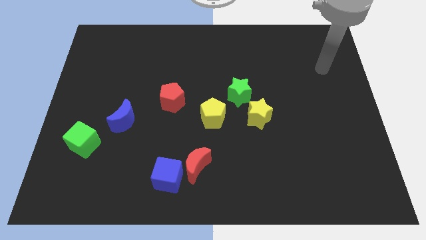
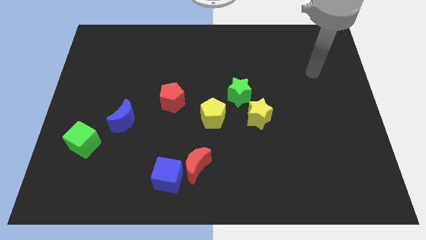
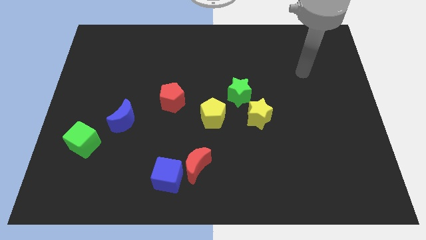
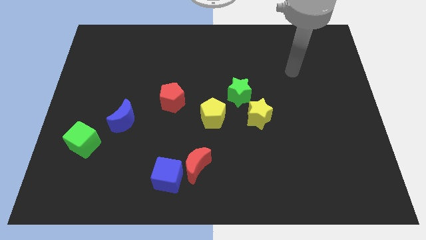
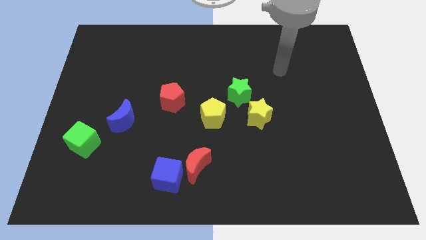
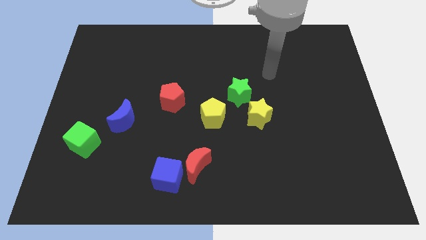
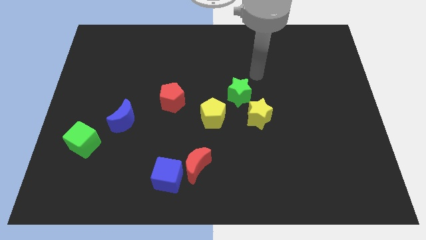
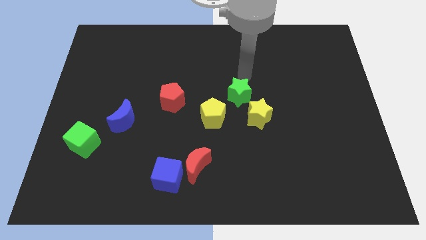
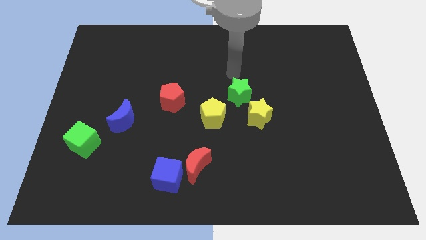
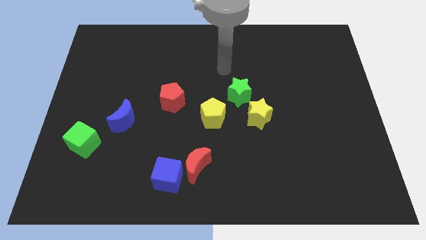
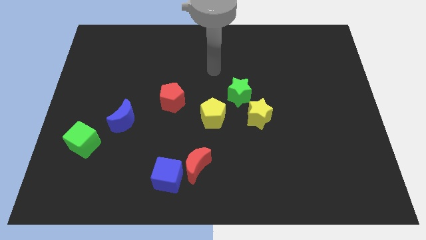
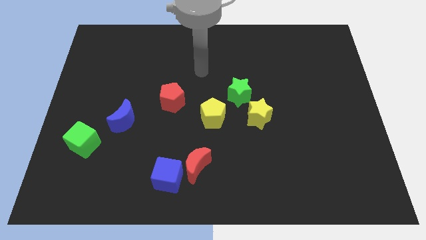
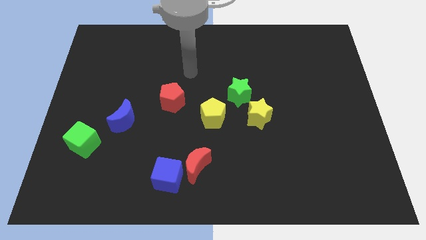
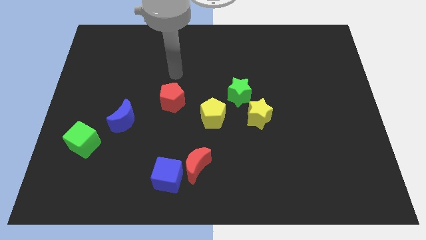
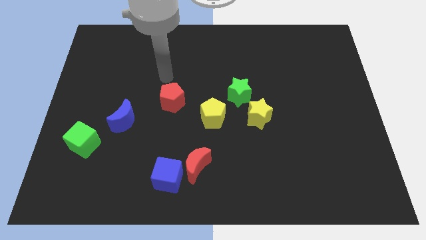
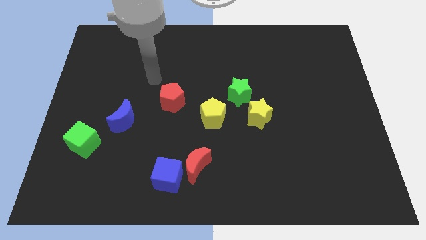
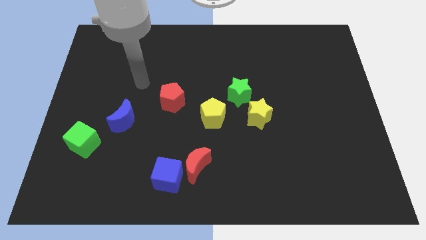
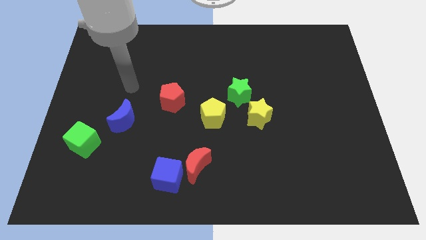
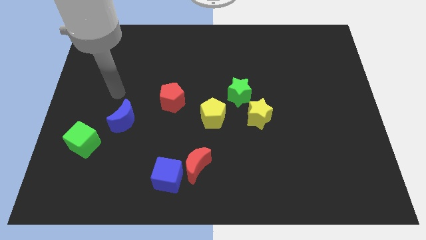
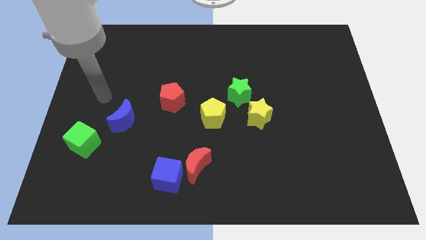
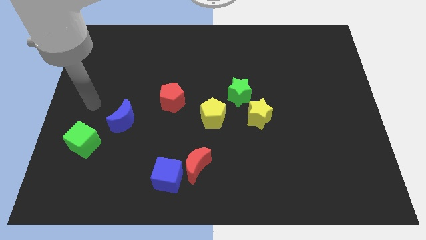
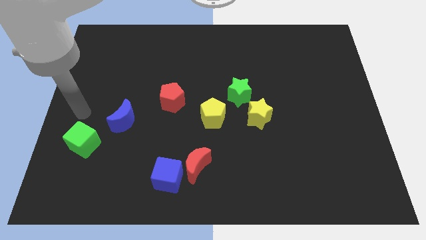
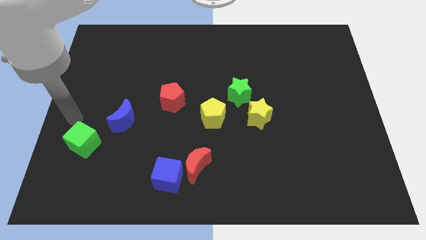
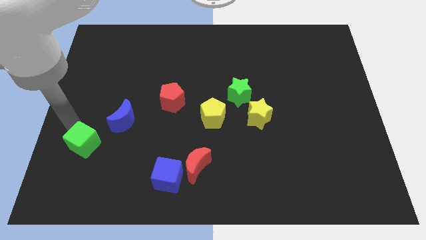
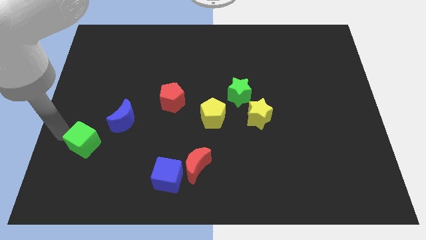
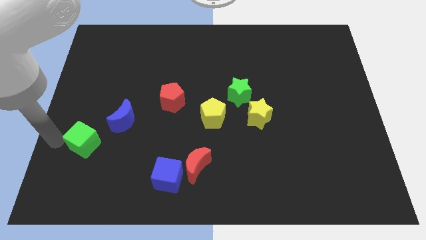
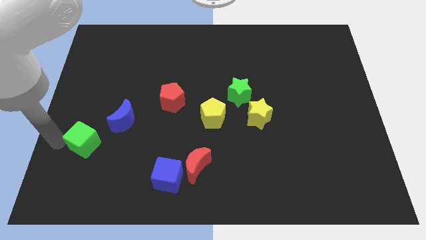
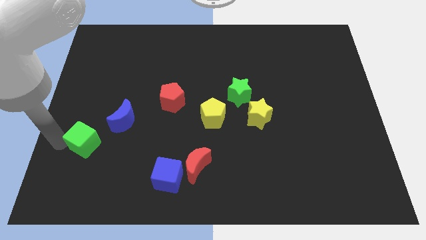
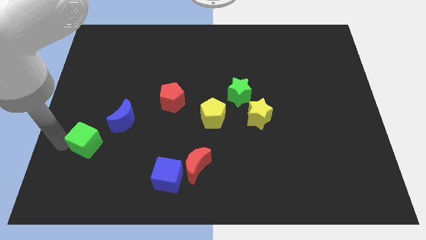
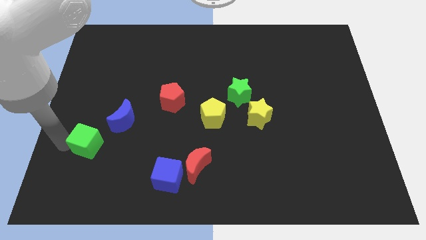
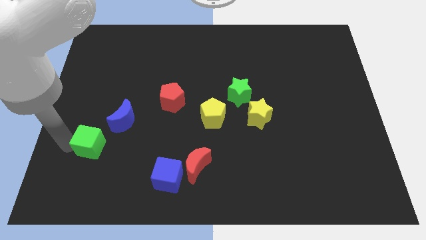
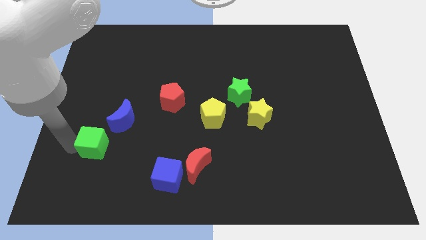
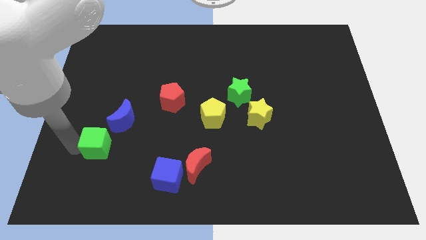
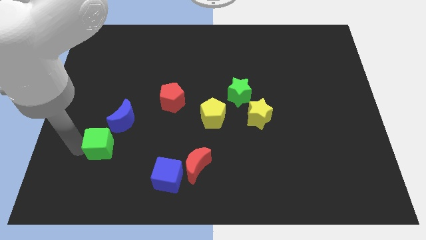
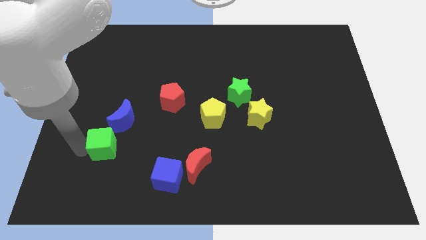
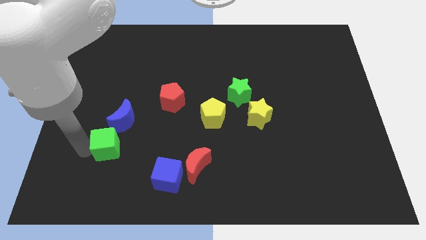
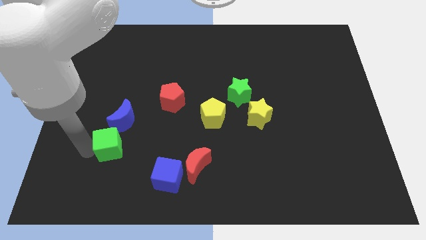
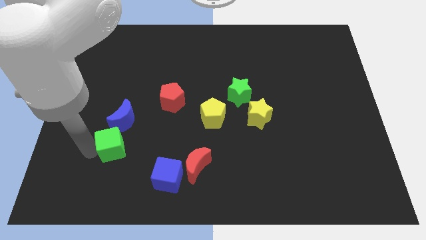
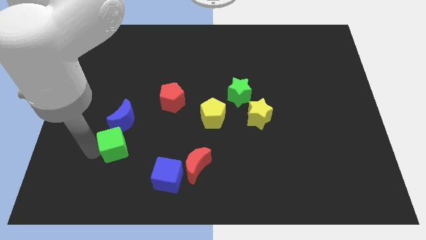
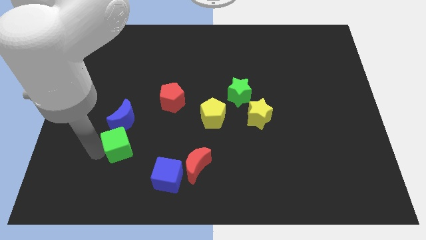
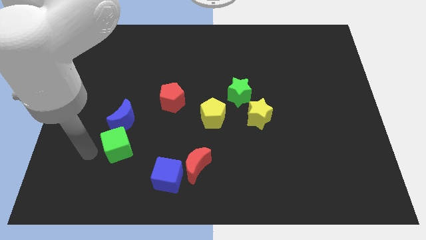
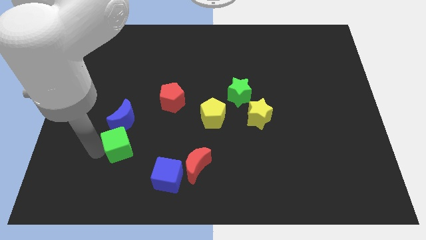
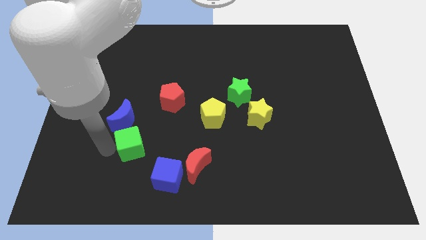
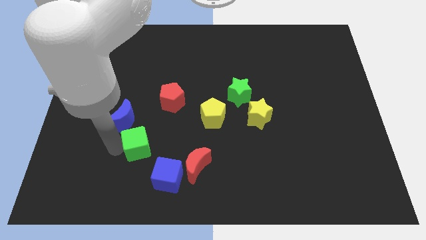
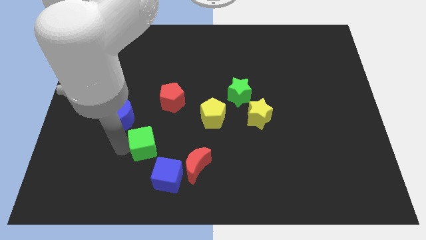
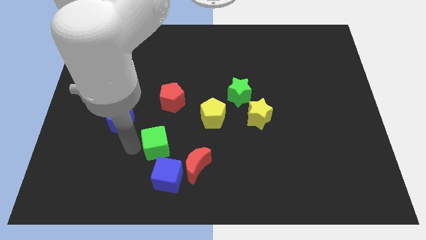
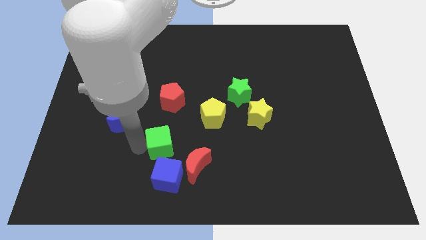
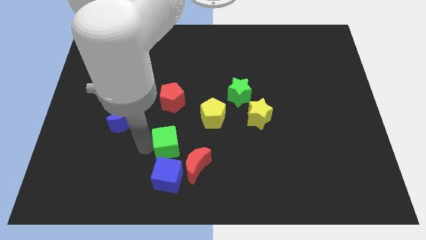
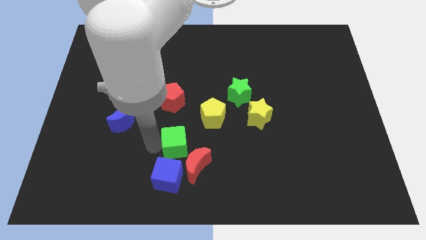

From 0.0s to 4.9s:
slide the green cube right

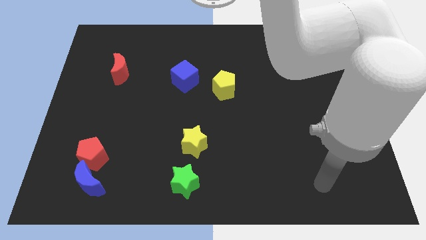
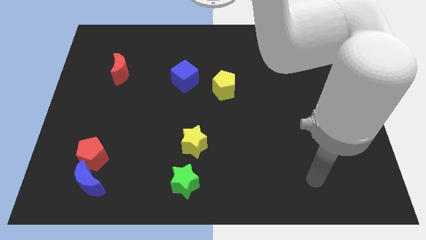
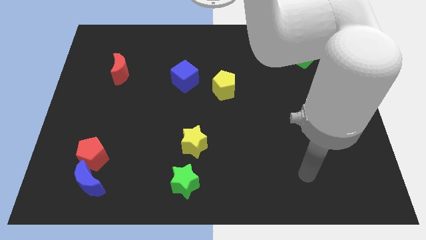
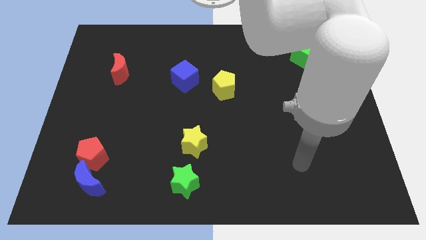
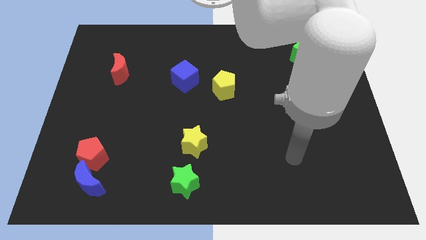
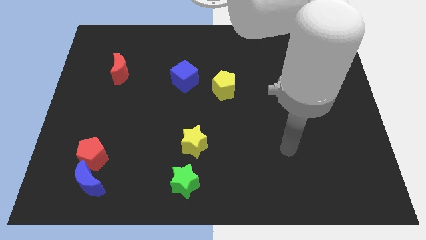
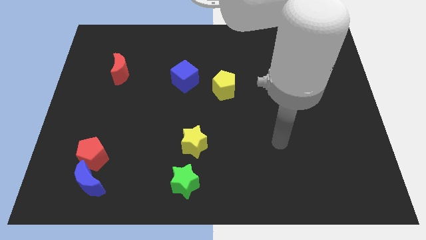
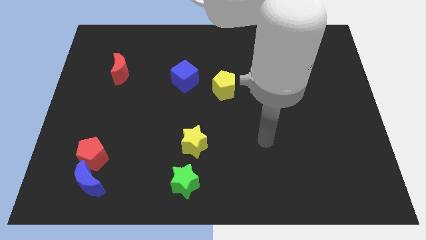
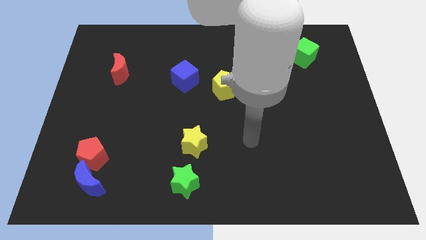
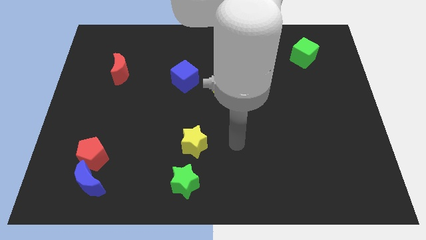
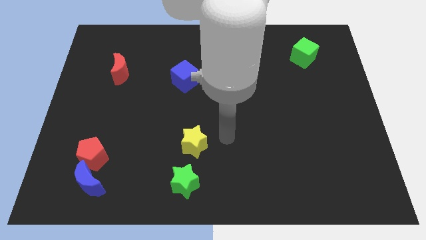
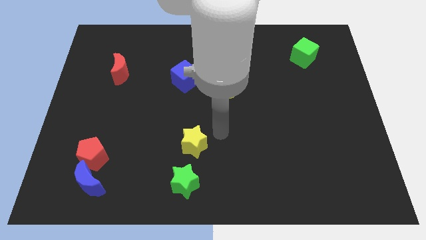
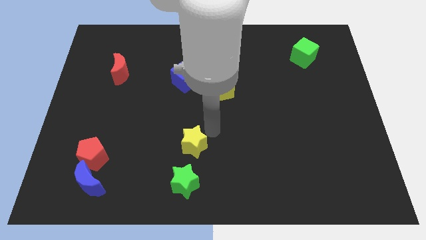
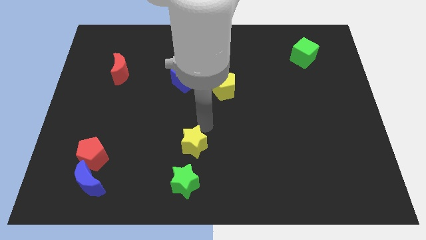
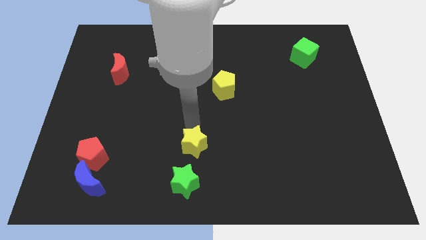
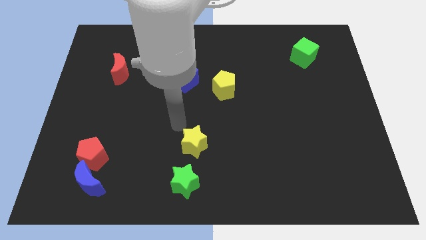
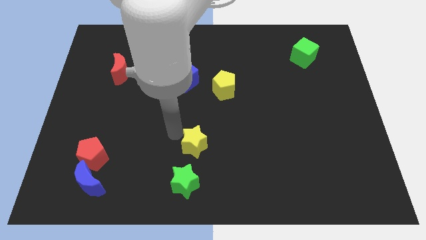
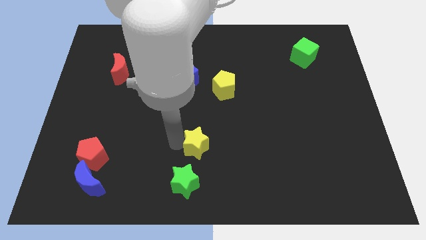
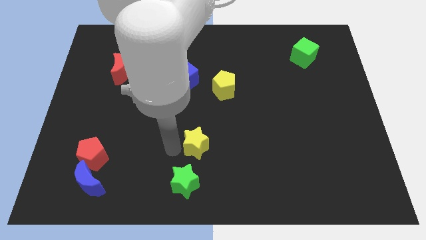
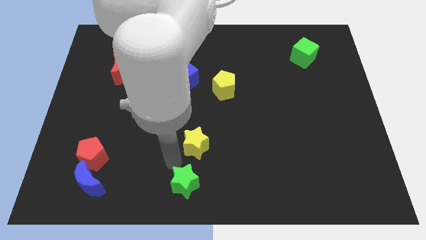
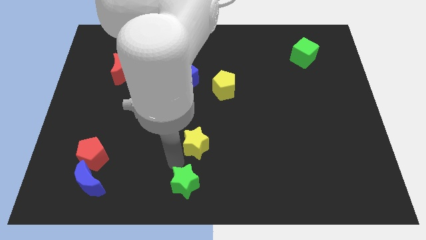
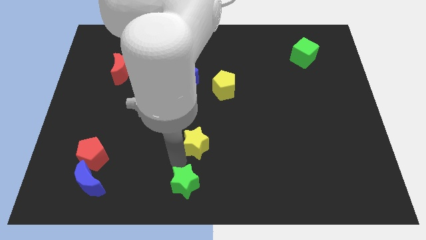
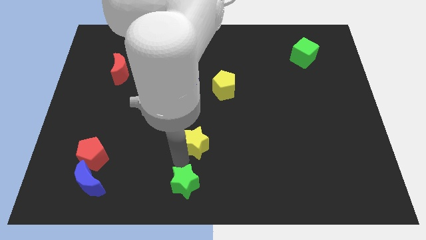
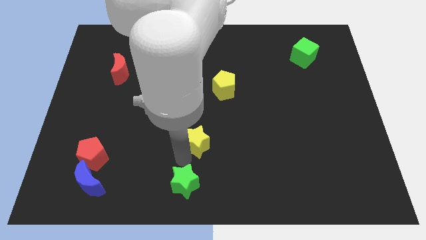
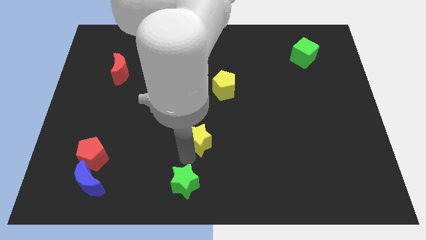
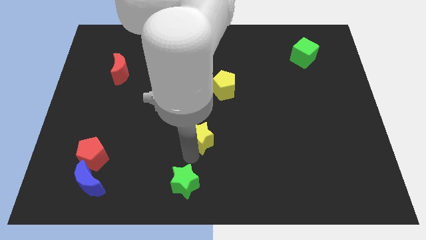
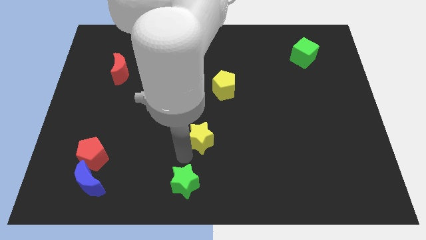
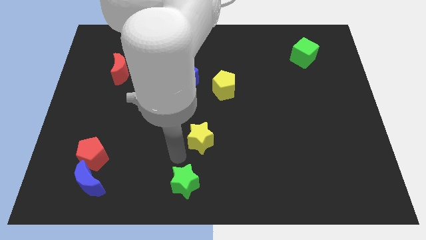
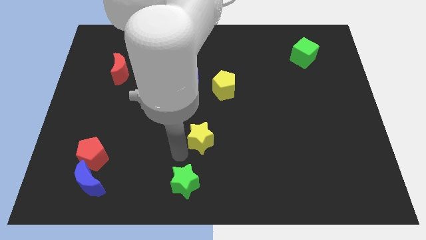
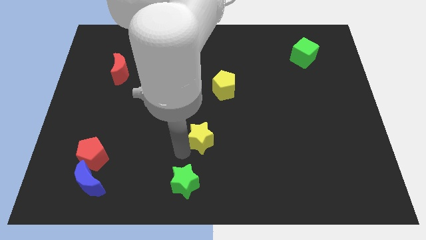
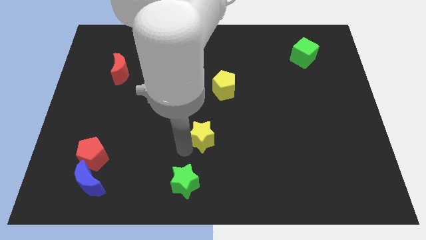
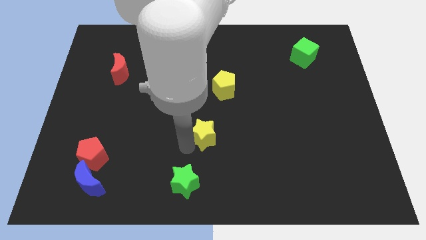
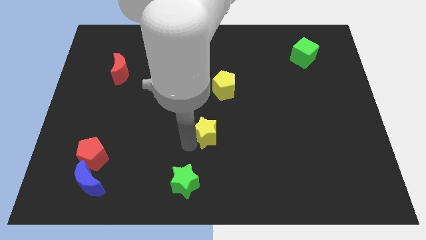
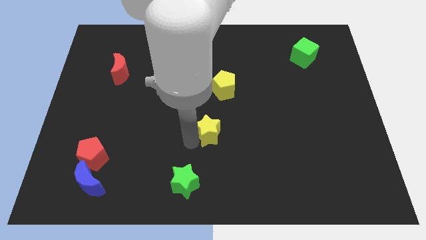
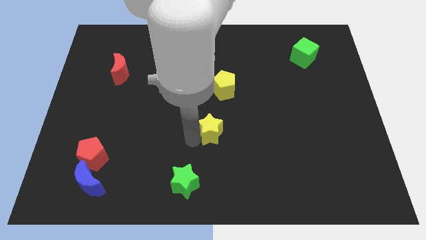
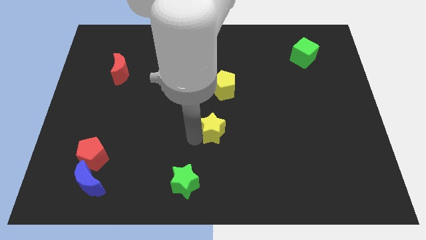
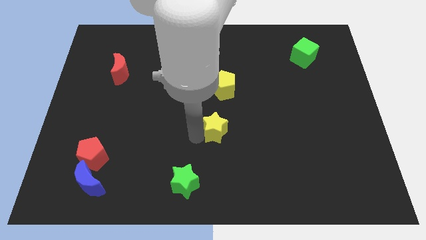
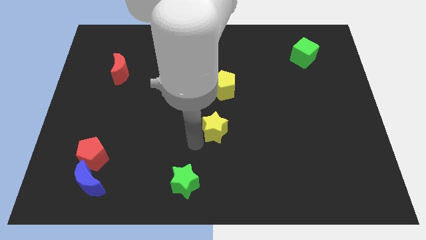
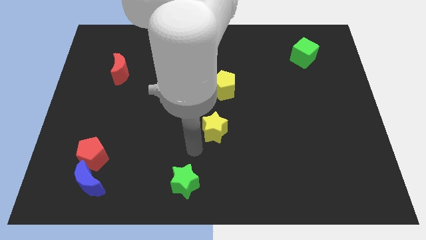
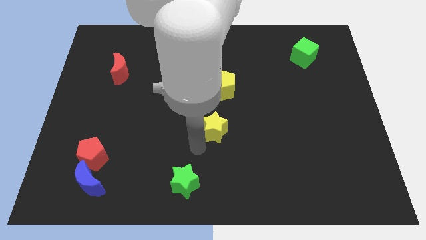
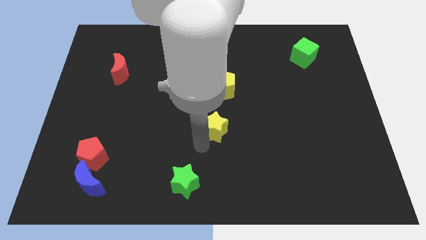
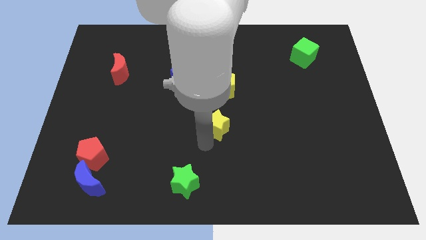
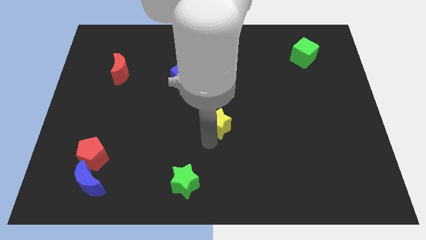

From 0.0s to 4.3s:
slightly push the yellow star upwards and then right
